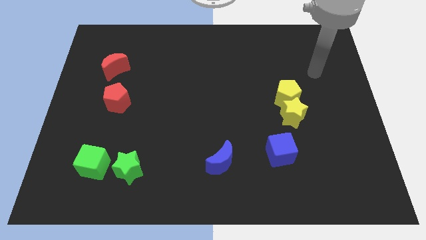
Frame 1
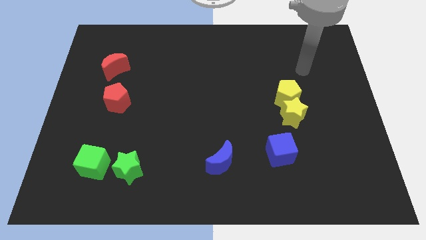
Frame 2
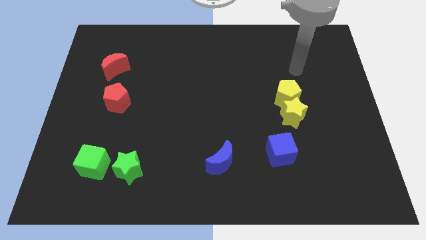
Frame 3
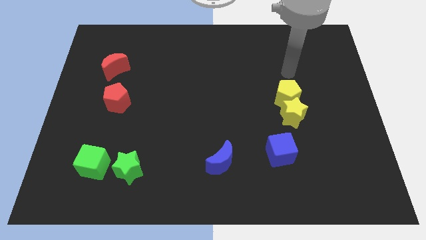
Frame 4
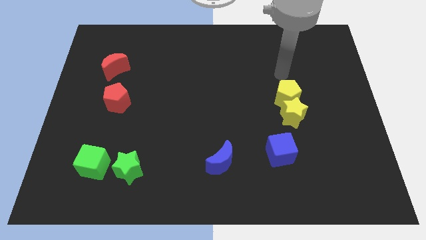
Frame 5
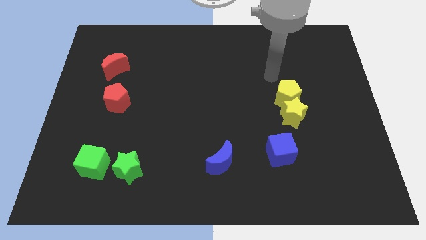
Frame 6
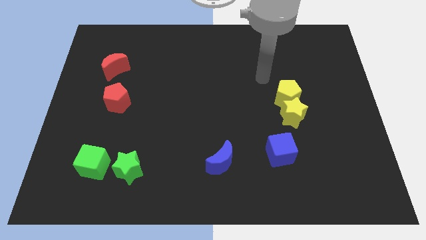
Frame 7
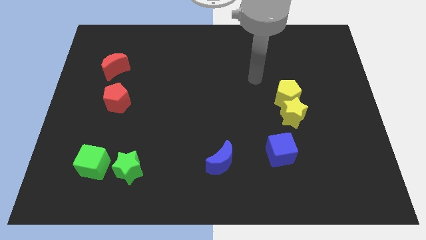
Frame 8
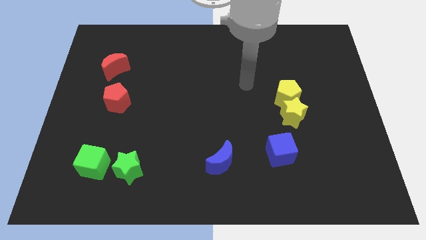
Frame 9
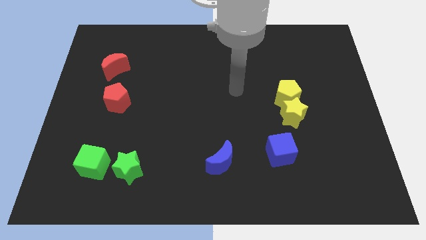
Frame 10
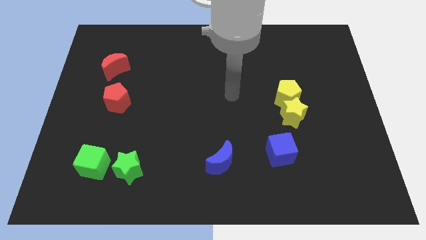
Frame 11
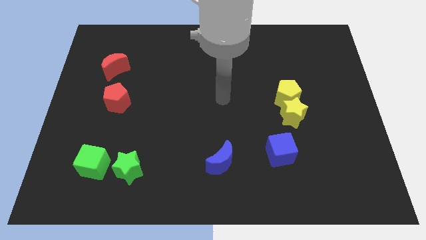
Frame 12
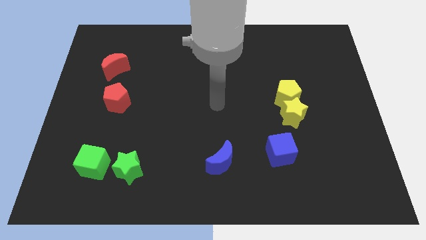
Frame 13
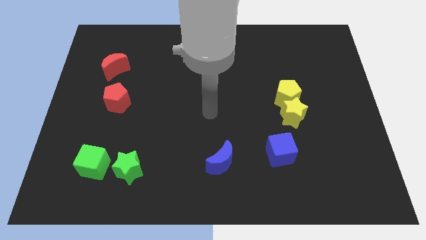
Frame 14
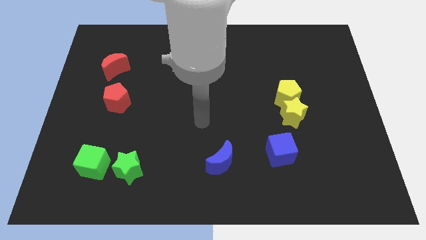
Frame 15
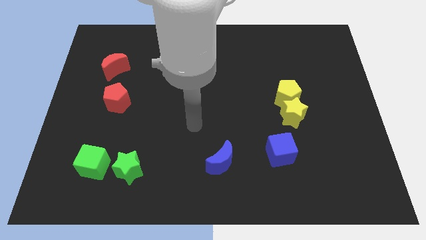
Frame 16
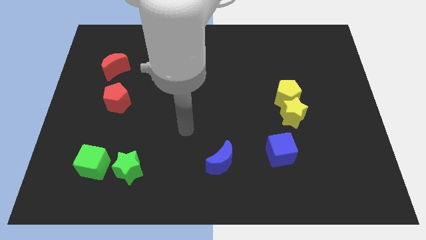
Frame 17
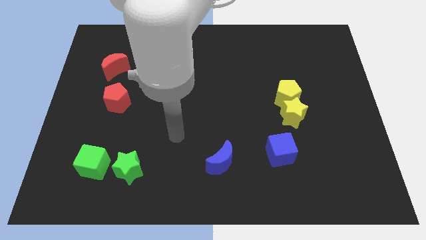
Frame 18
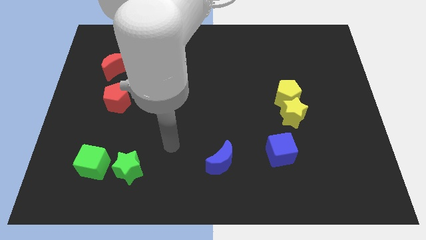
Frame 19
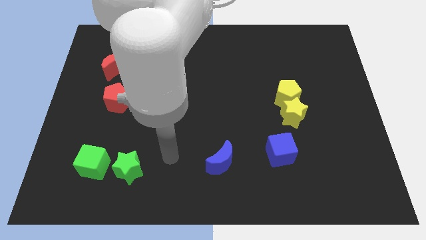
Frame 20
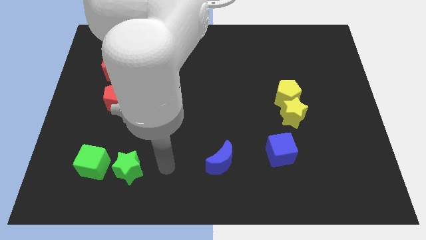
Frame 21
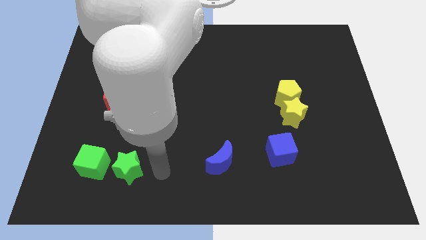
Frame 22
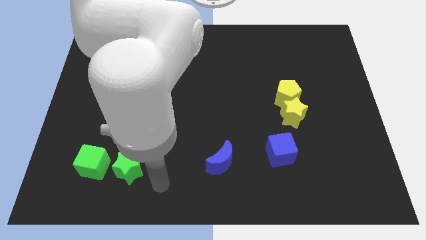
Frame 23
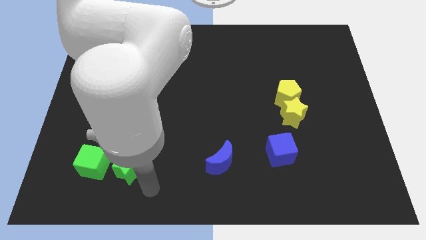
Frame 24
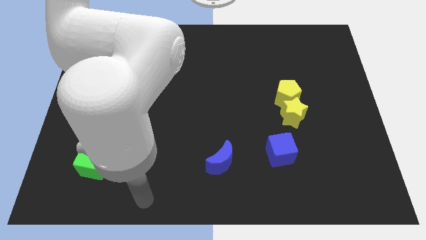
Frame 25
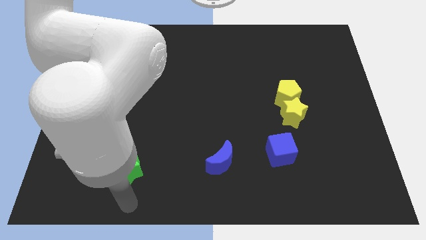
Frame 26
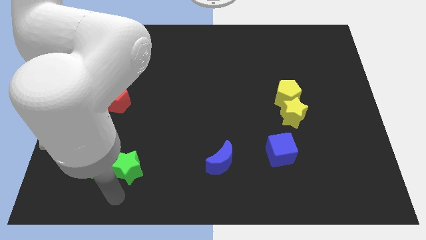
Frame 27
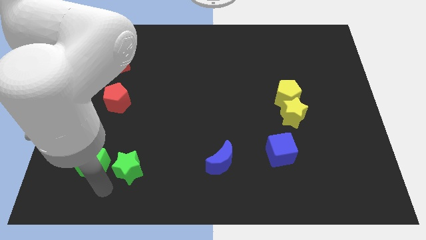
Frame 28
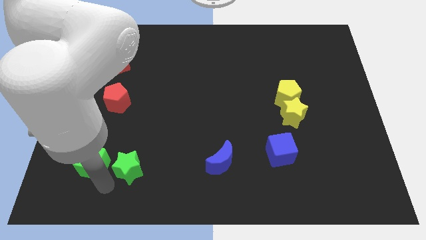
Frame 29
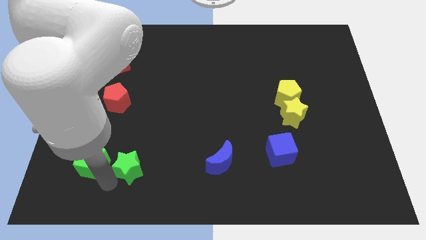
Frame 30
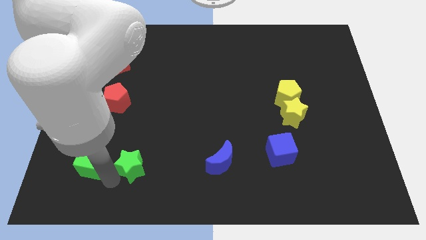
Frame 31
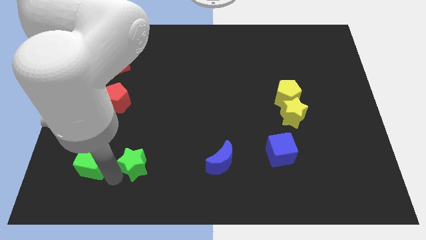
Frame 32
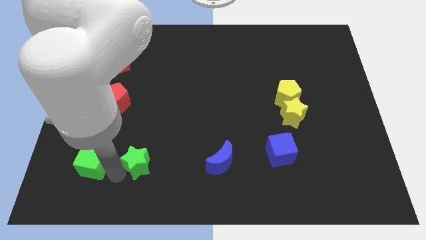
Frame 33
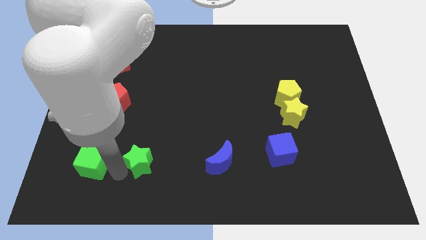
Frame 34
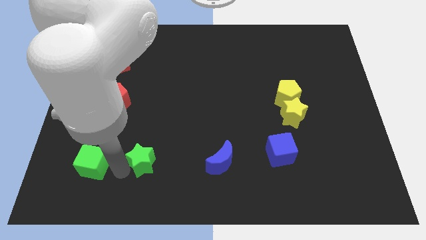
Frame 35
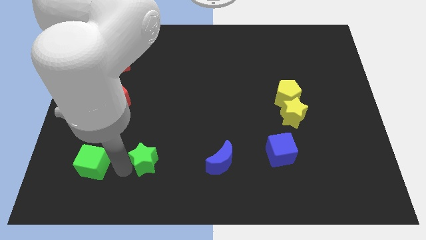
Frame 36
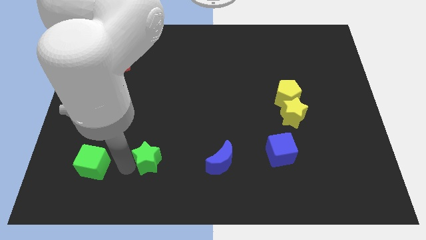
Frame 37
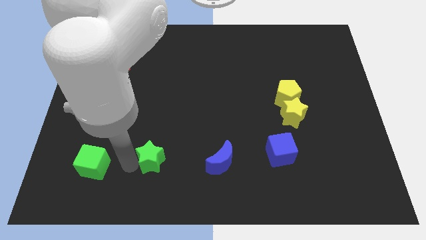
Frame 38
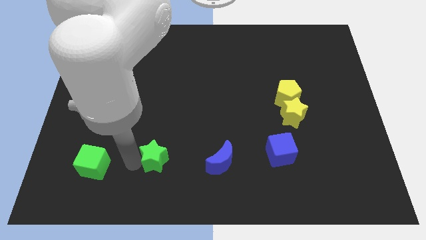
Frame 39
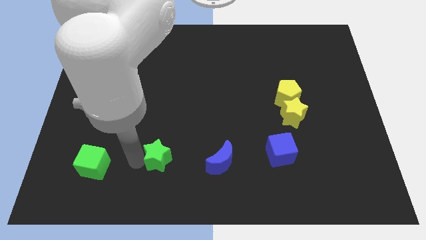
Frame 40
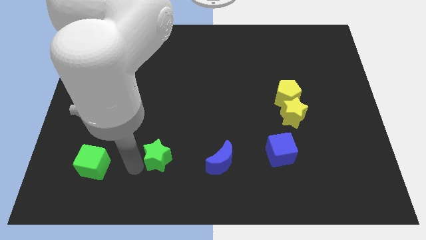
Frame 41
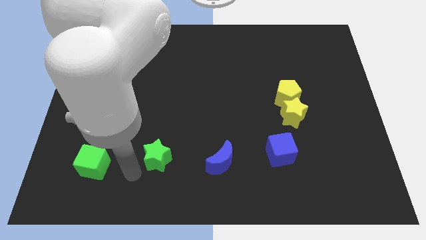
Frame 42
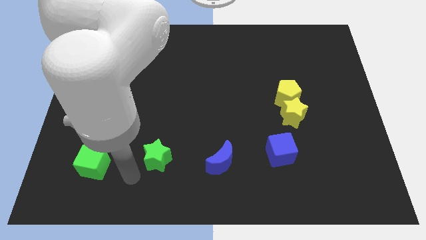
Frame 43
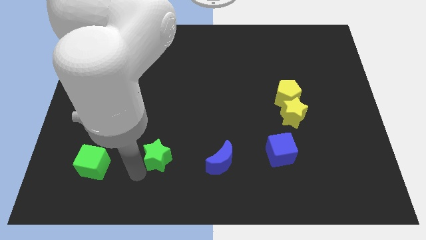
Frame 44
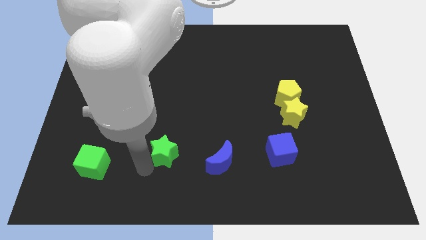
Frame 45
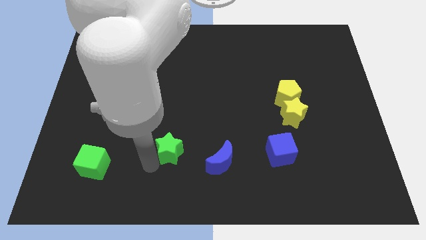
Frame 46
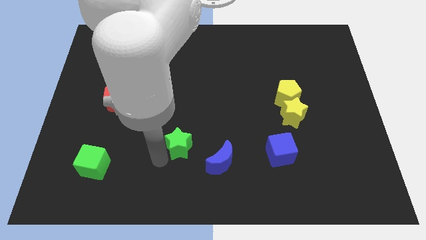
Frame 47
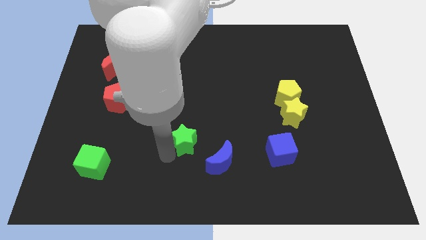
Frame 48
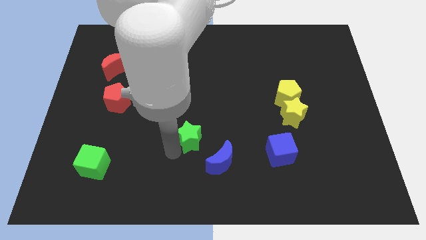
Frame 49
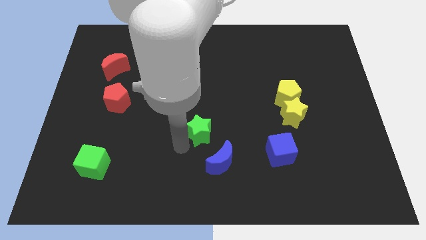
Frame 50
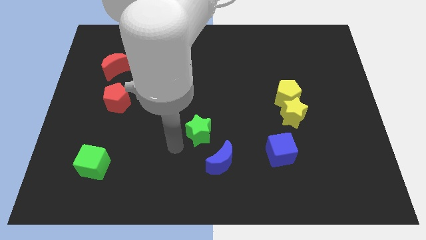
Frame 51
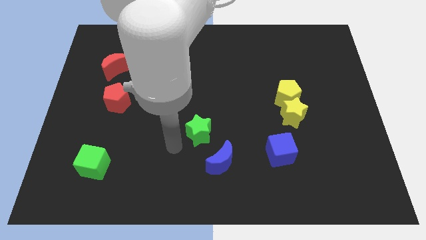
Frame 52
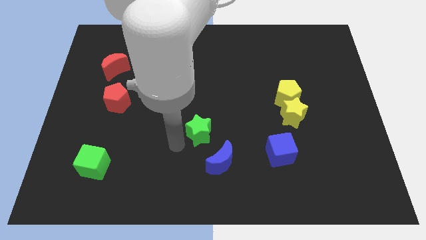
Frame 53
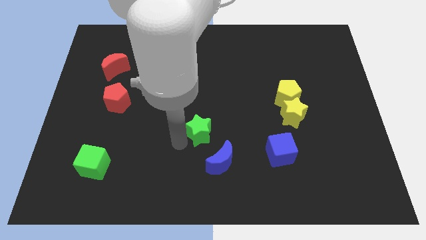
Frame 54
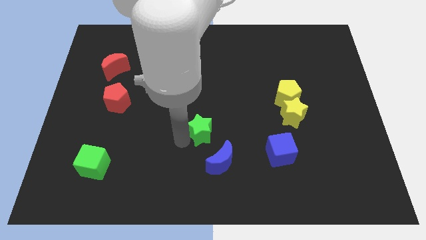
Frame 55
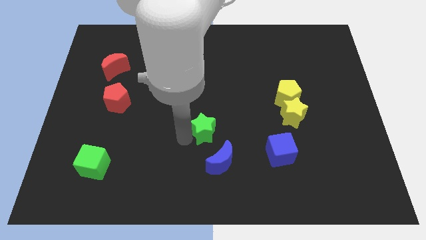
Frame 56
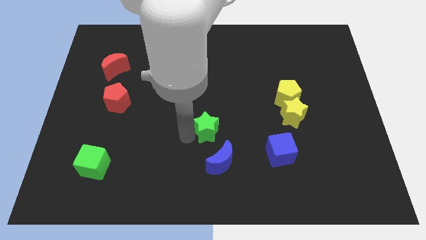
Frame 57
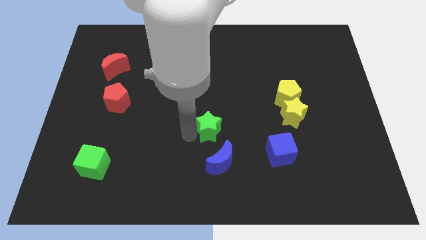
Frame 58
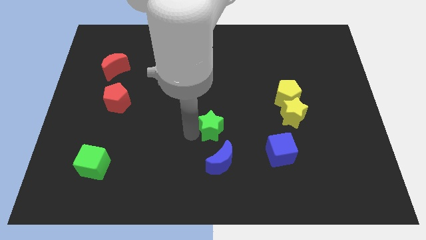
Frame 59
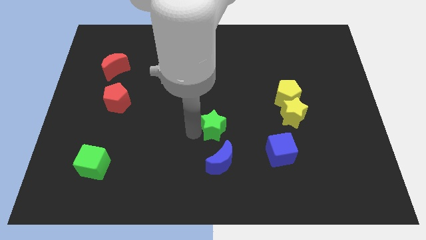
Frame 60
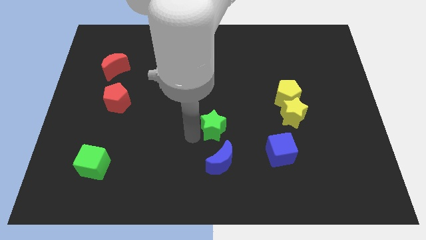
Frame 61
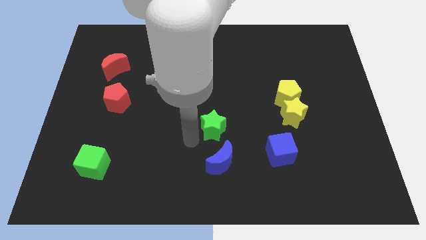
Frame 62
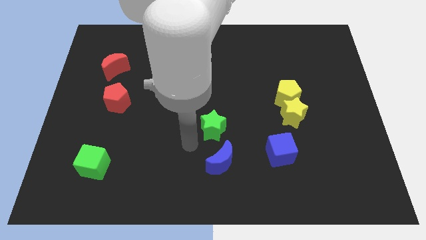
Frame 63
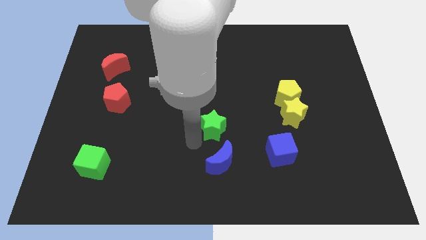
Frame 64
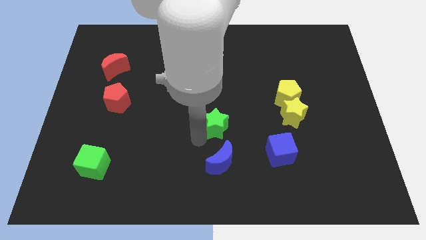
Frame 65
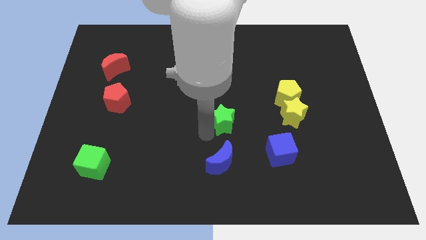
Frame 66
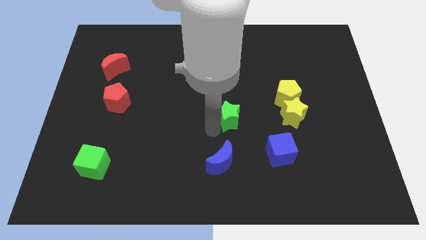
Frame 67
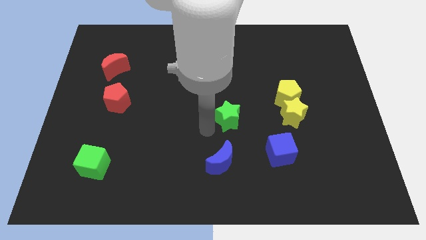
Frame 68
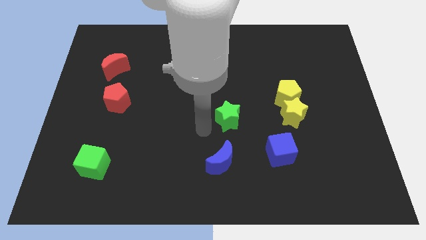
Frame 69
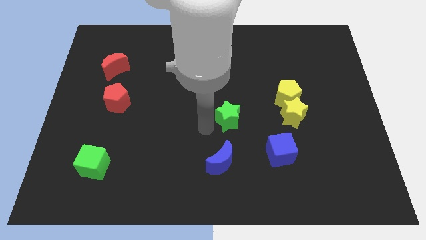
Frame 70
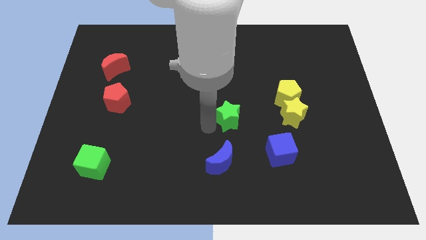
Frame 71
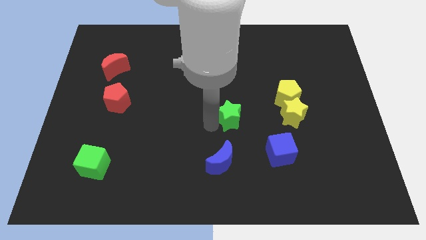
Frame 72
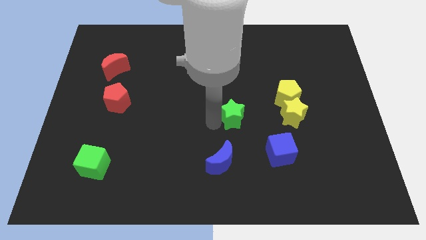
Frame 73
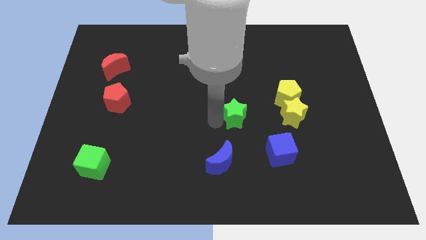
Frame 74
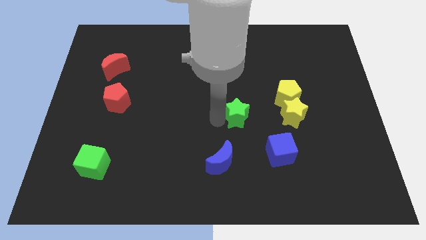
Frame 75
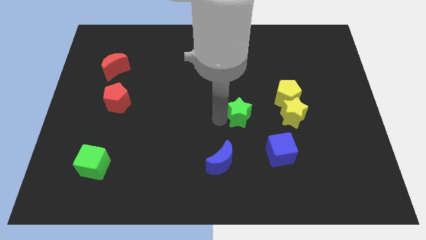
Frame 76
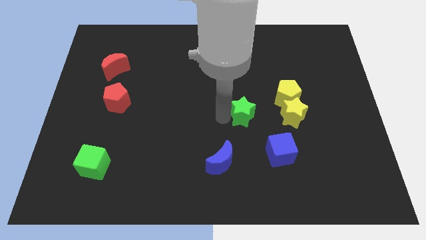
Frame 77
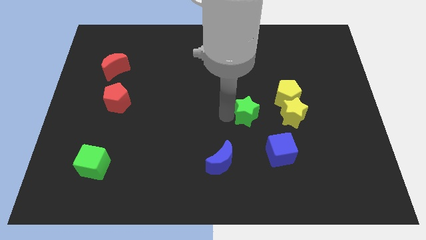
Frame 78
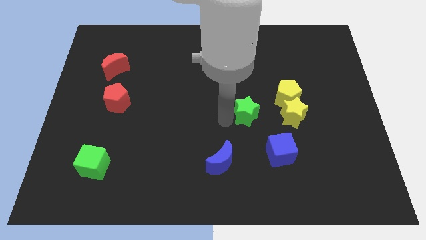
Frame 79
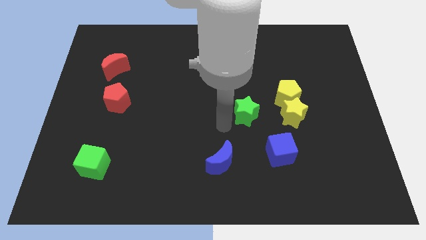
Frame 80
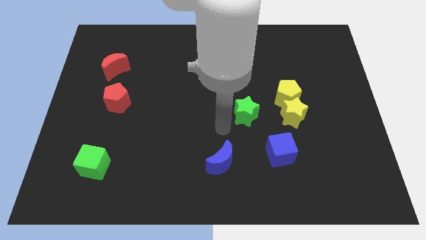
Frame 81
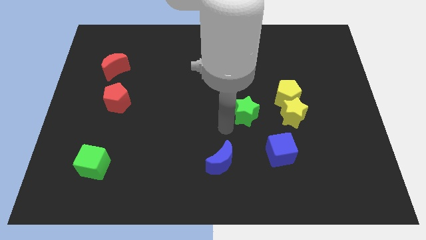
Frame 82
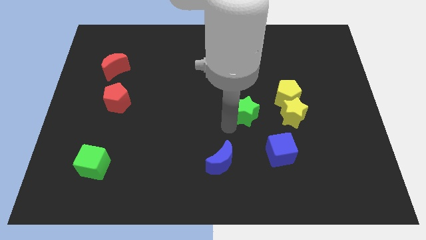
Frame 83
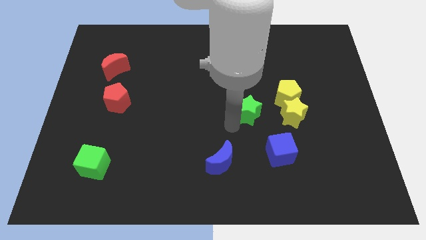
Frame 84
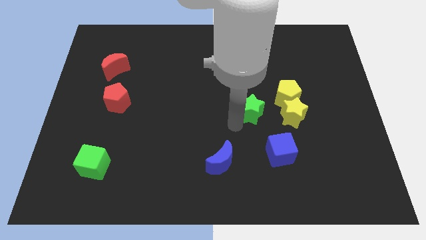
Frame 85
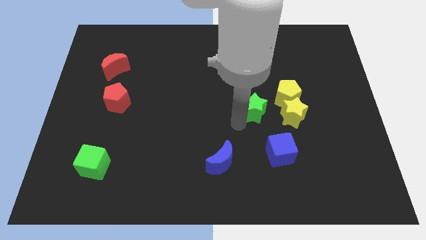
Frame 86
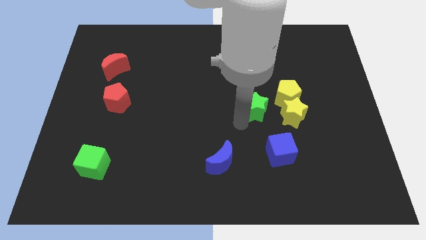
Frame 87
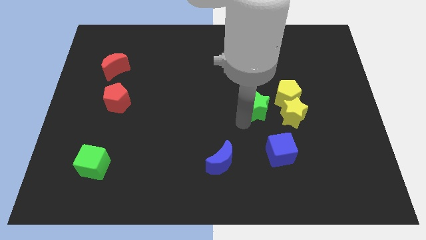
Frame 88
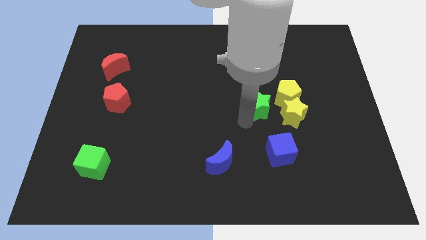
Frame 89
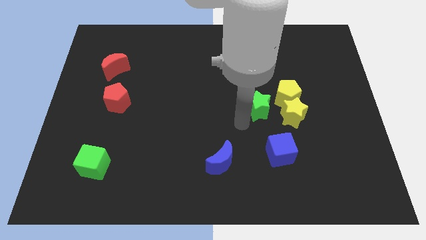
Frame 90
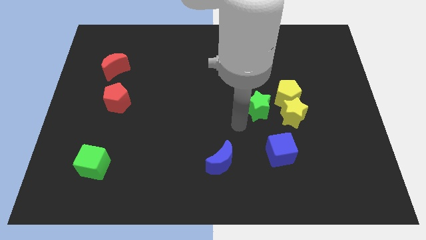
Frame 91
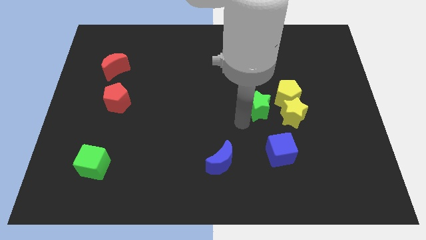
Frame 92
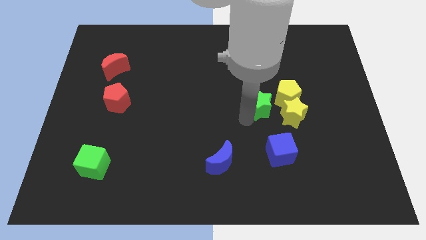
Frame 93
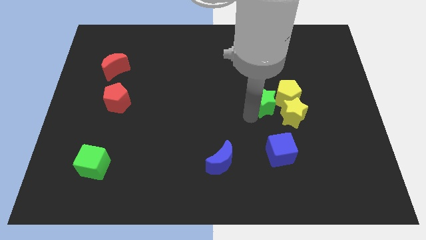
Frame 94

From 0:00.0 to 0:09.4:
move the green star next to the yellow pentagon
